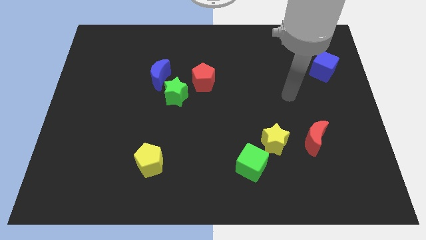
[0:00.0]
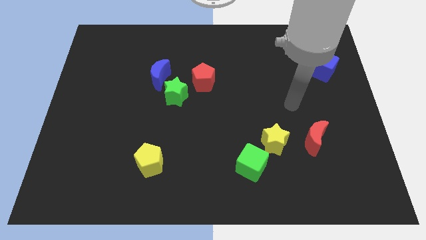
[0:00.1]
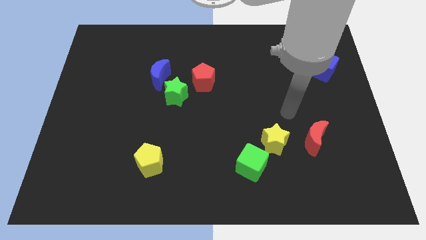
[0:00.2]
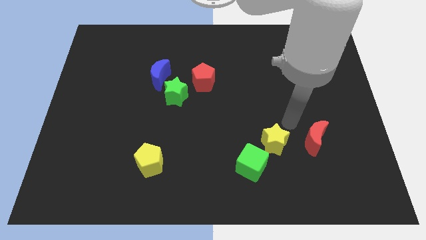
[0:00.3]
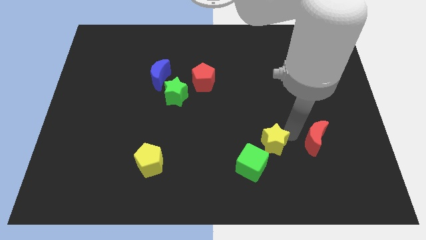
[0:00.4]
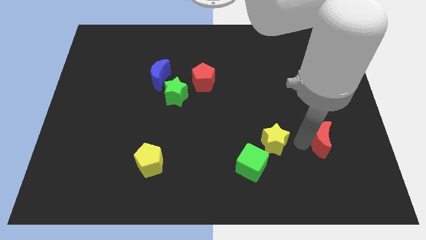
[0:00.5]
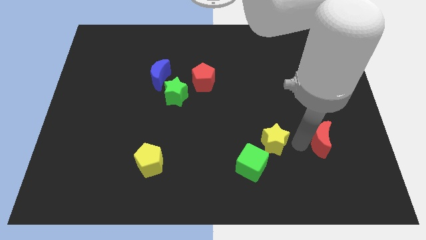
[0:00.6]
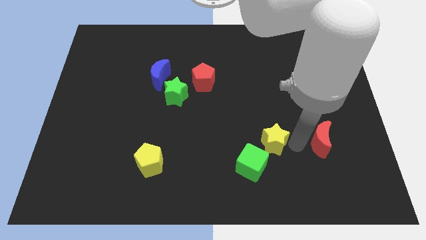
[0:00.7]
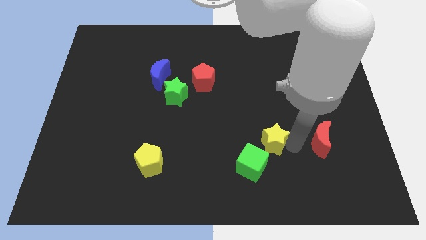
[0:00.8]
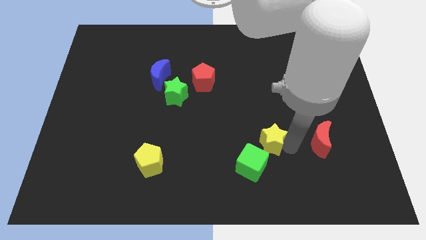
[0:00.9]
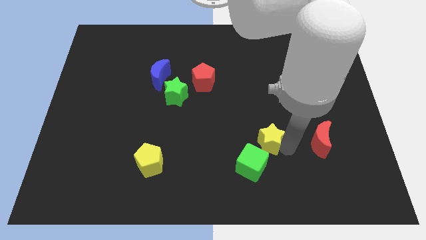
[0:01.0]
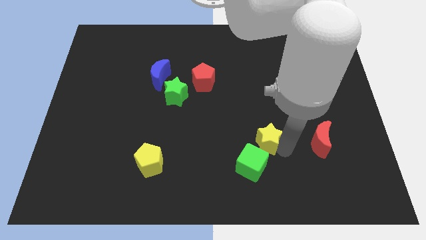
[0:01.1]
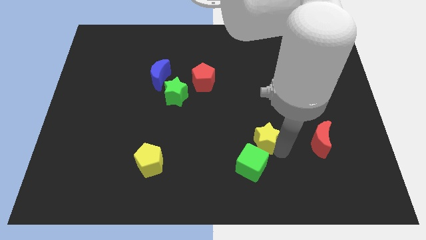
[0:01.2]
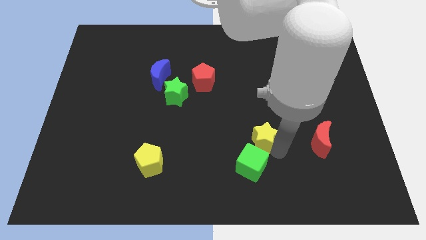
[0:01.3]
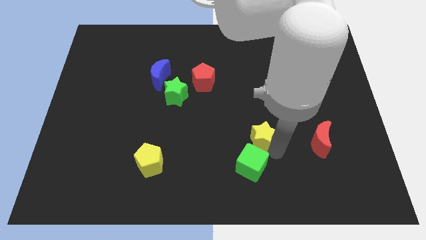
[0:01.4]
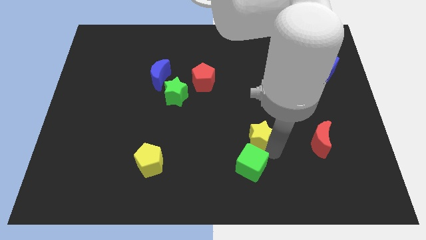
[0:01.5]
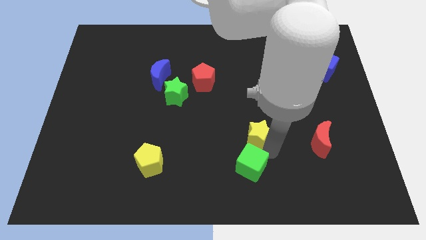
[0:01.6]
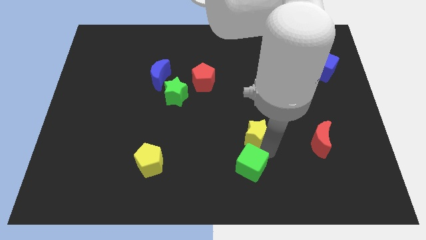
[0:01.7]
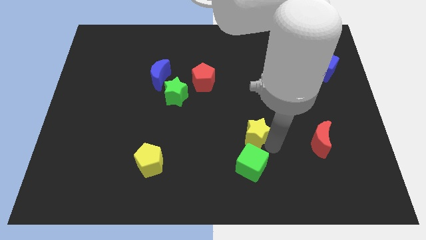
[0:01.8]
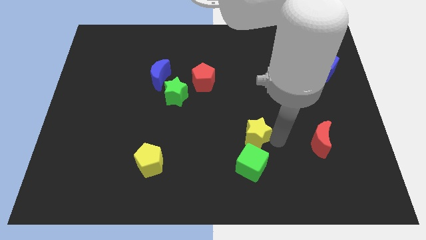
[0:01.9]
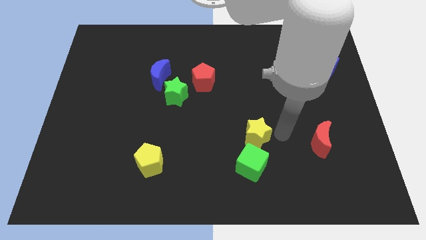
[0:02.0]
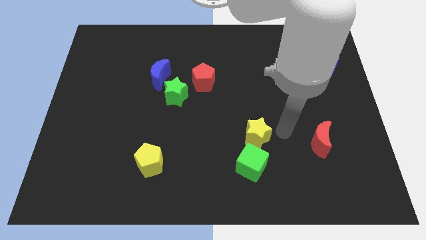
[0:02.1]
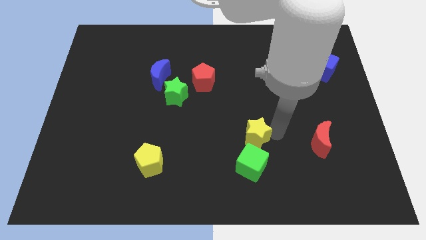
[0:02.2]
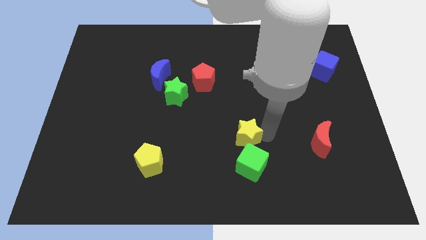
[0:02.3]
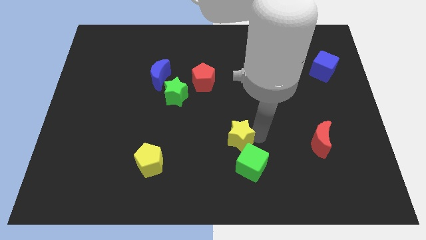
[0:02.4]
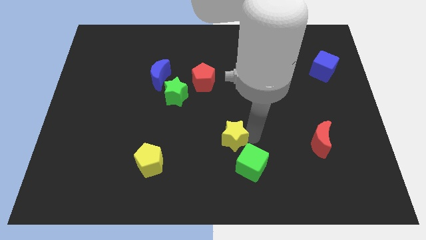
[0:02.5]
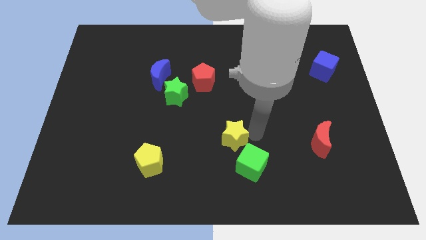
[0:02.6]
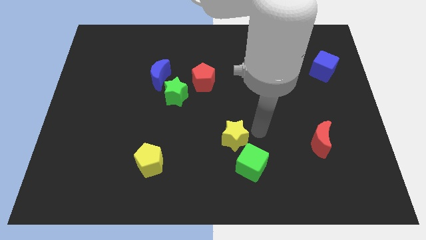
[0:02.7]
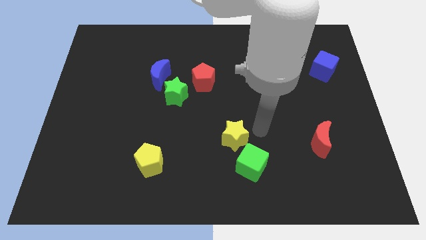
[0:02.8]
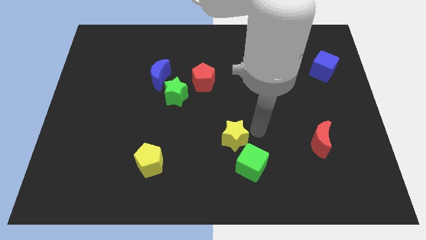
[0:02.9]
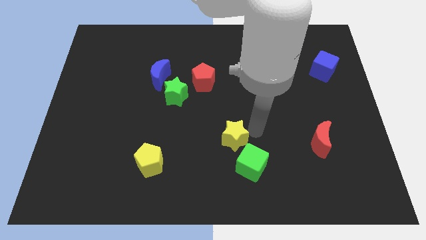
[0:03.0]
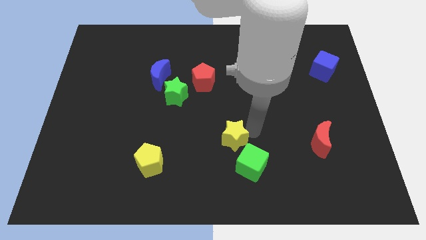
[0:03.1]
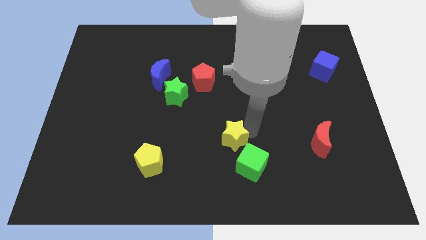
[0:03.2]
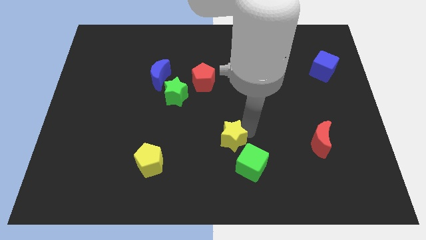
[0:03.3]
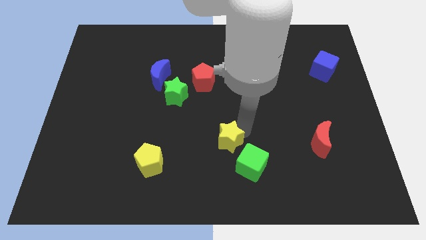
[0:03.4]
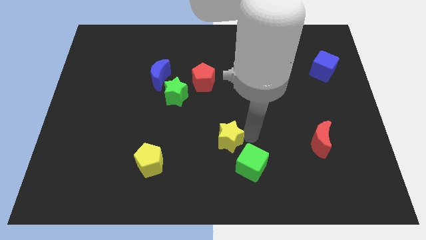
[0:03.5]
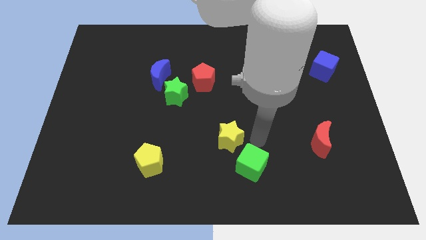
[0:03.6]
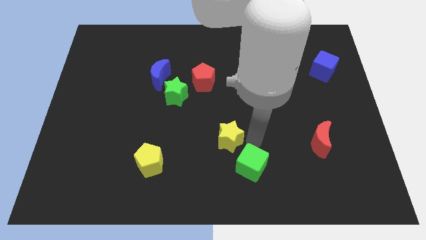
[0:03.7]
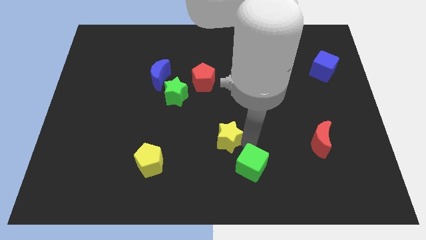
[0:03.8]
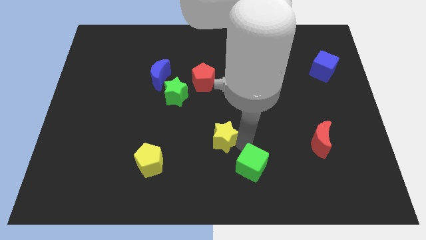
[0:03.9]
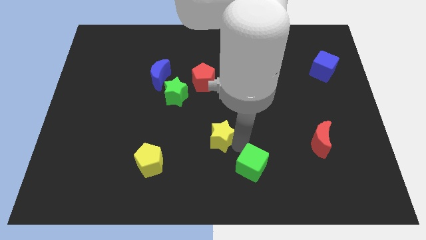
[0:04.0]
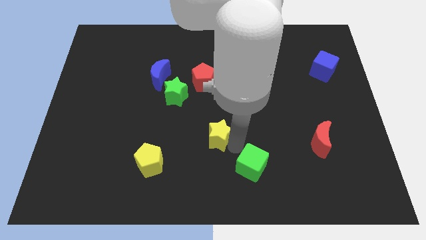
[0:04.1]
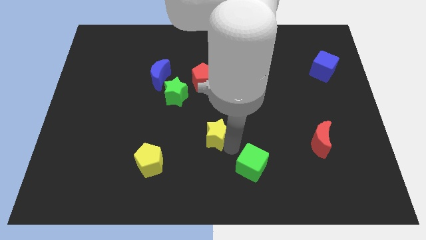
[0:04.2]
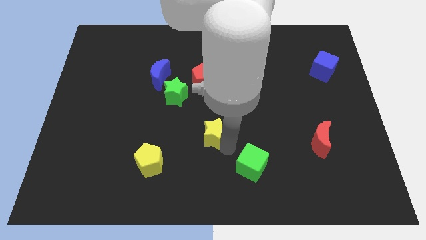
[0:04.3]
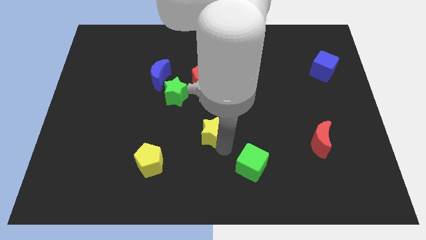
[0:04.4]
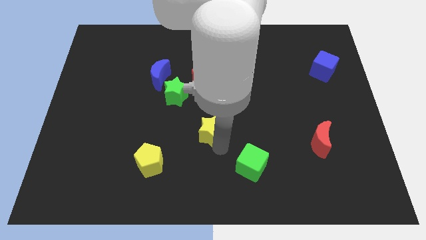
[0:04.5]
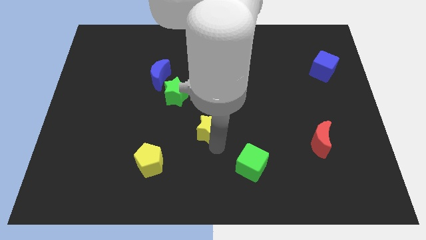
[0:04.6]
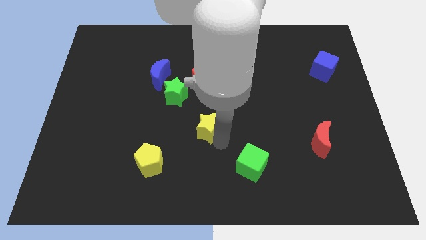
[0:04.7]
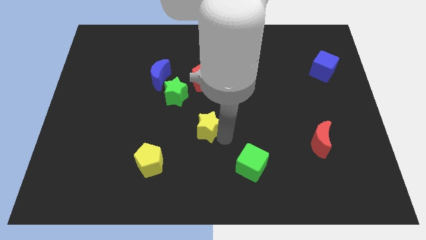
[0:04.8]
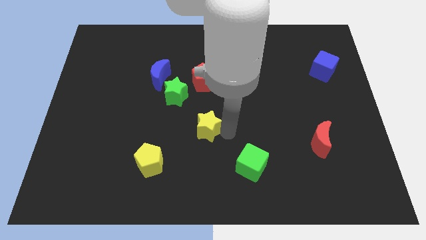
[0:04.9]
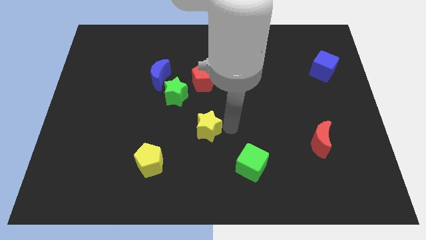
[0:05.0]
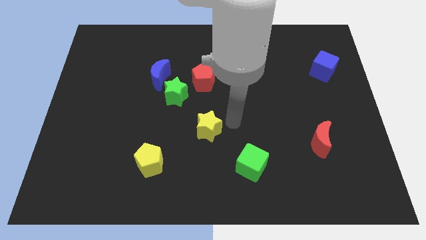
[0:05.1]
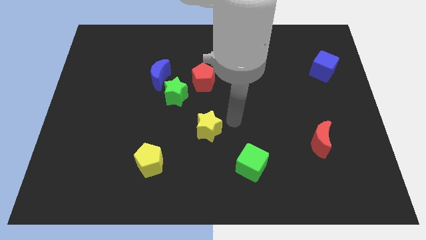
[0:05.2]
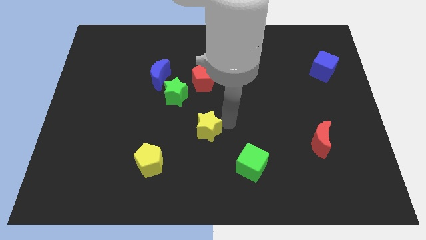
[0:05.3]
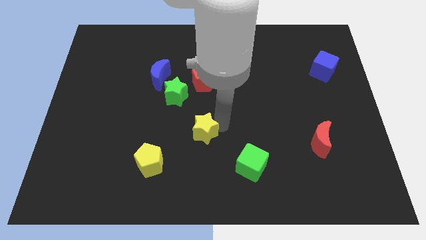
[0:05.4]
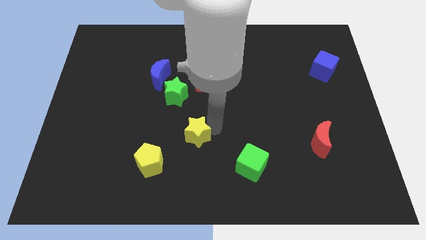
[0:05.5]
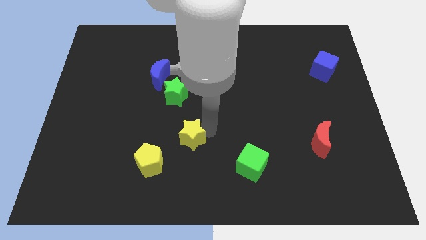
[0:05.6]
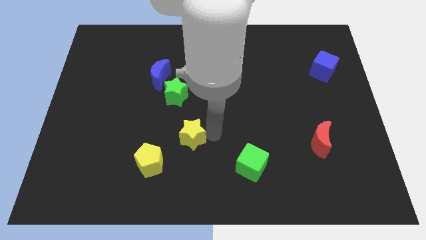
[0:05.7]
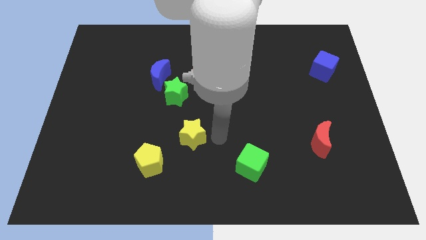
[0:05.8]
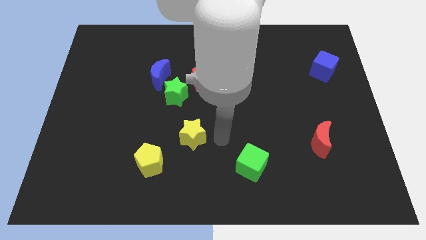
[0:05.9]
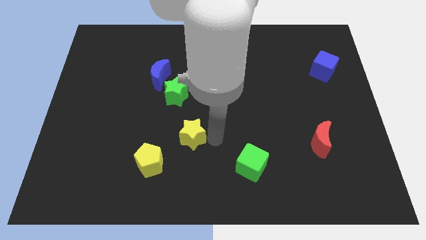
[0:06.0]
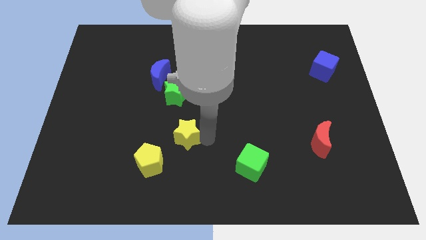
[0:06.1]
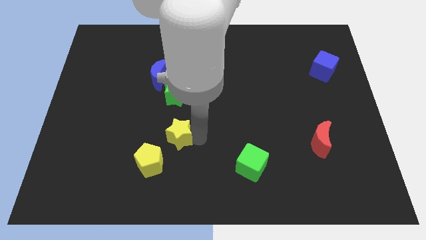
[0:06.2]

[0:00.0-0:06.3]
move the yellow star to the left

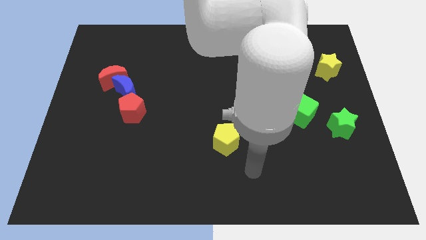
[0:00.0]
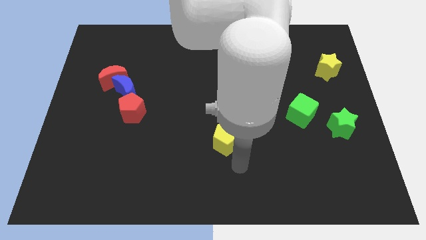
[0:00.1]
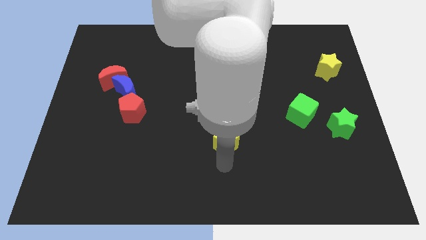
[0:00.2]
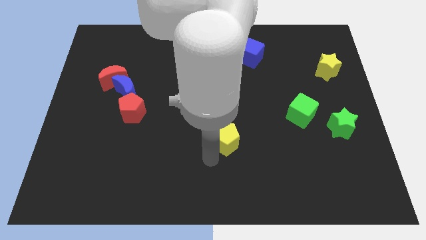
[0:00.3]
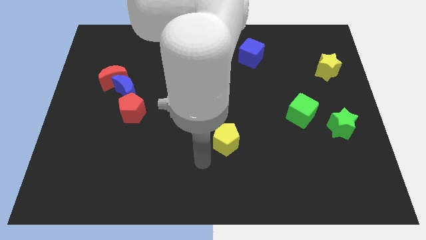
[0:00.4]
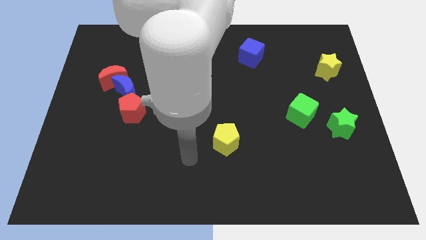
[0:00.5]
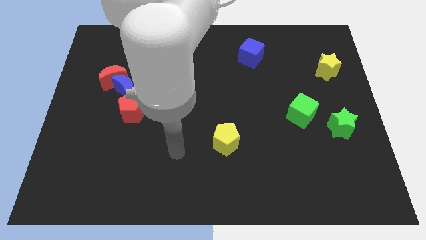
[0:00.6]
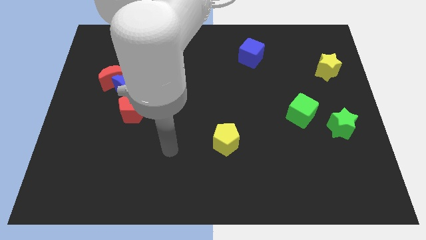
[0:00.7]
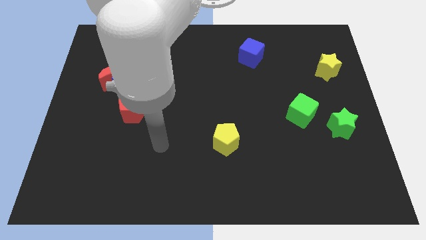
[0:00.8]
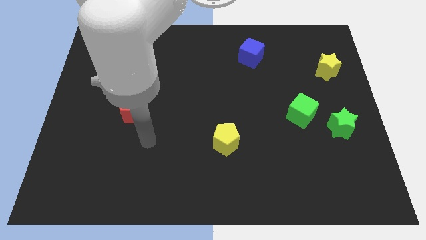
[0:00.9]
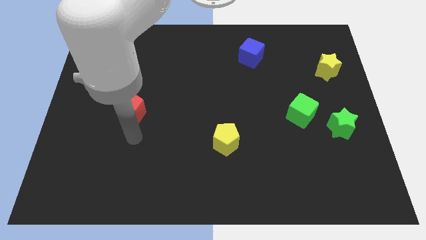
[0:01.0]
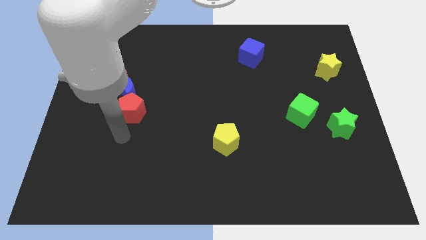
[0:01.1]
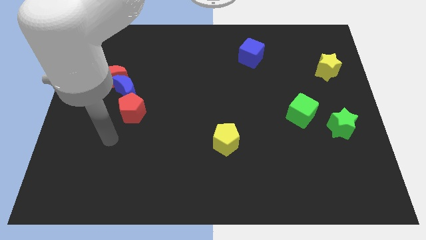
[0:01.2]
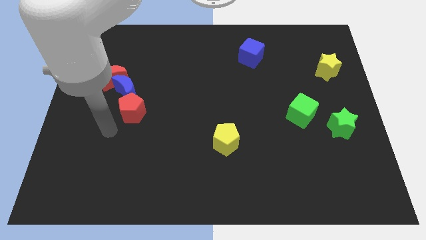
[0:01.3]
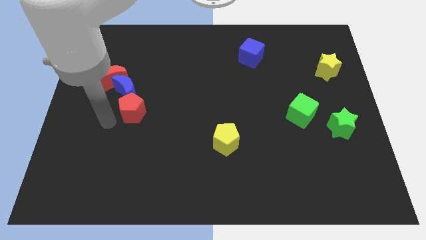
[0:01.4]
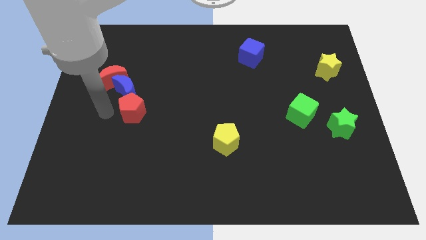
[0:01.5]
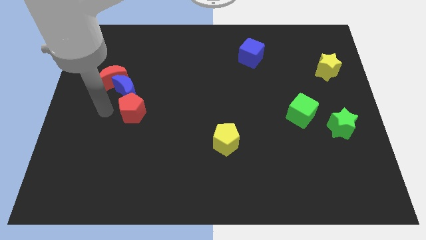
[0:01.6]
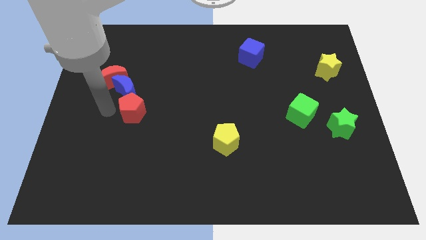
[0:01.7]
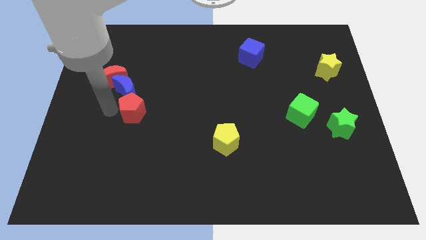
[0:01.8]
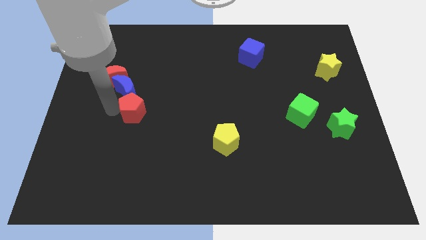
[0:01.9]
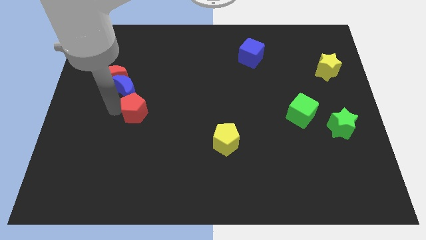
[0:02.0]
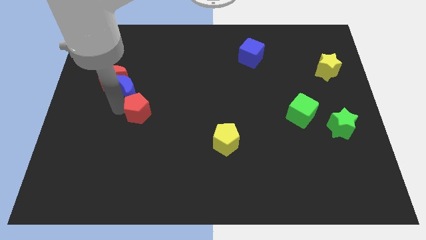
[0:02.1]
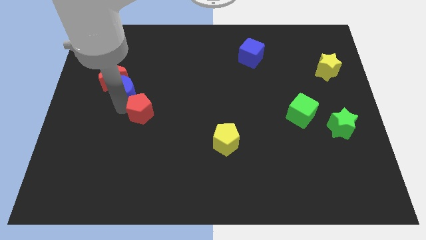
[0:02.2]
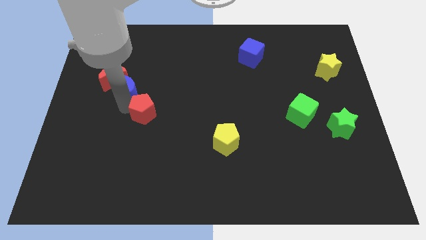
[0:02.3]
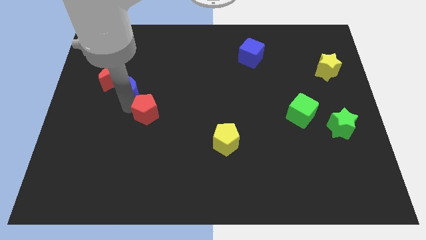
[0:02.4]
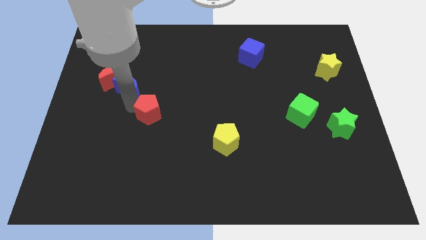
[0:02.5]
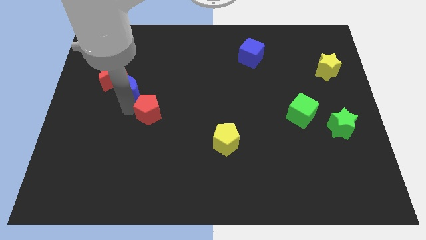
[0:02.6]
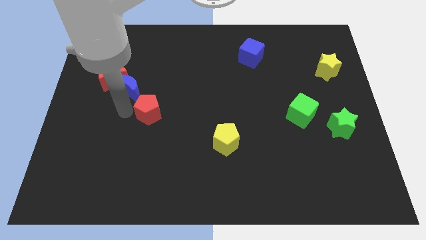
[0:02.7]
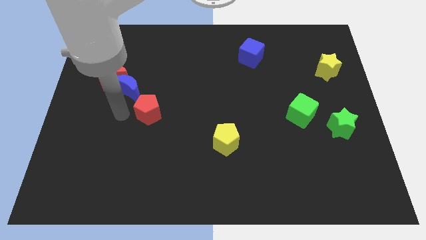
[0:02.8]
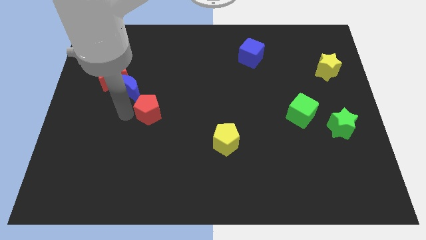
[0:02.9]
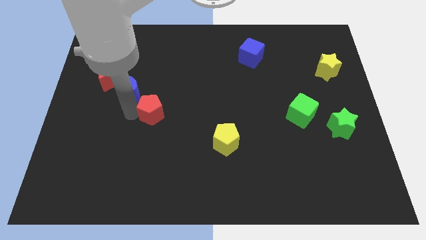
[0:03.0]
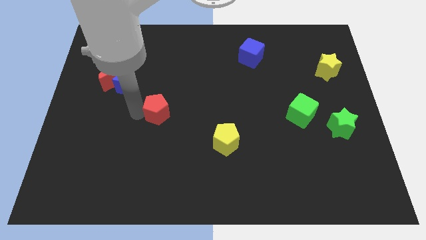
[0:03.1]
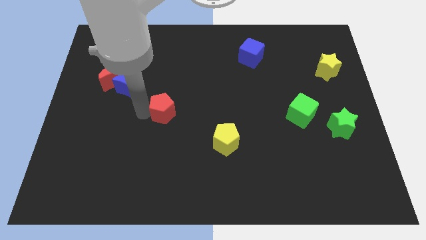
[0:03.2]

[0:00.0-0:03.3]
slightly slide the red pentagon right
